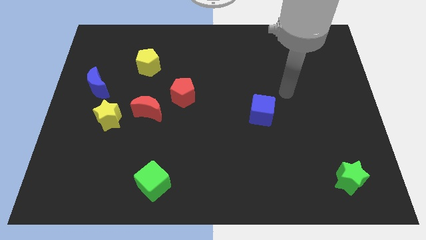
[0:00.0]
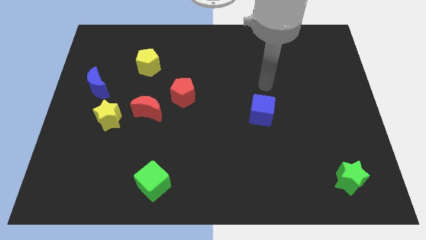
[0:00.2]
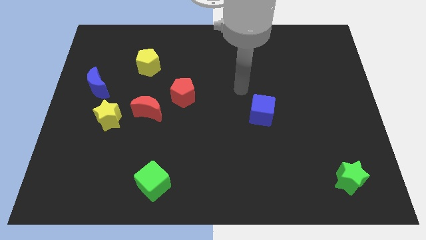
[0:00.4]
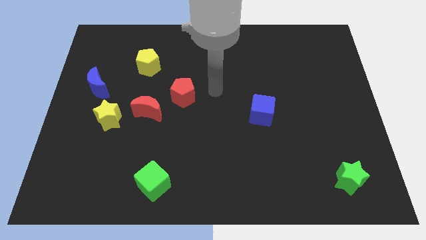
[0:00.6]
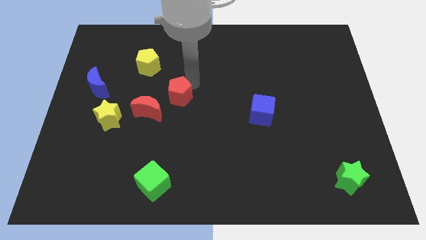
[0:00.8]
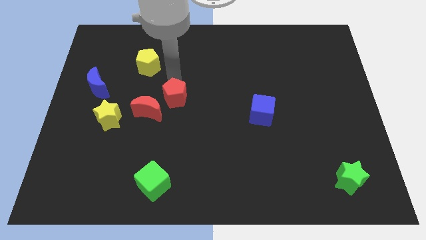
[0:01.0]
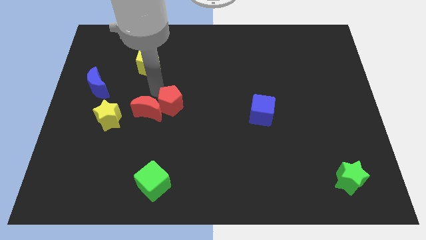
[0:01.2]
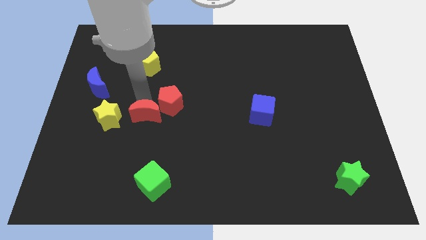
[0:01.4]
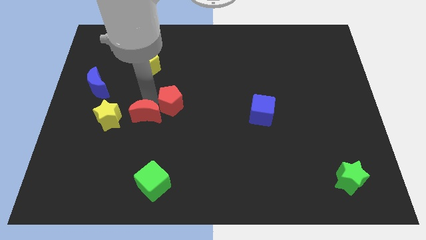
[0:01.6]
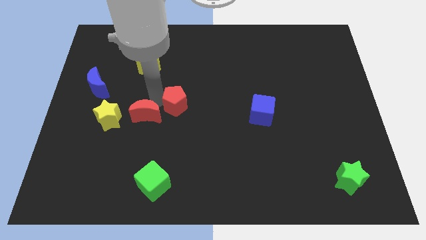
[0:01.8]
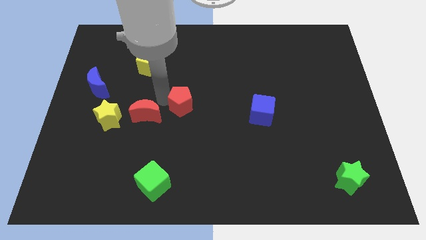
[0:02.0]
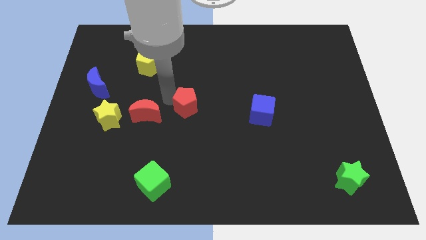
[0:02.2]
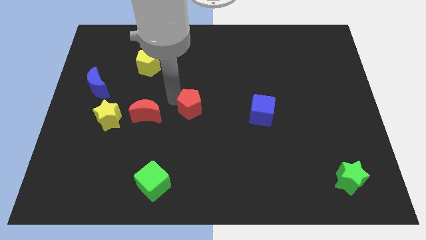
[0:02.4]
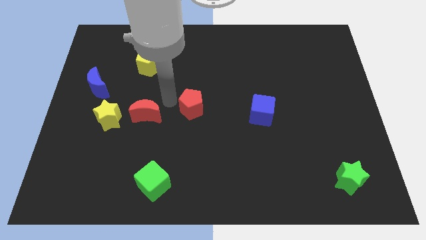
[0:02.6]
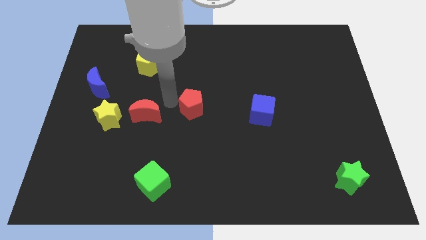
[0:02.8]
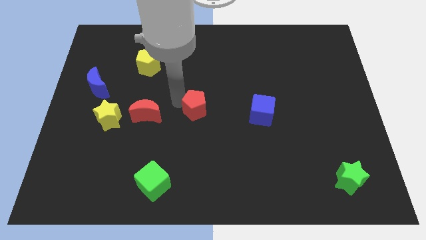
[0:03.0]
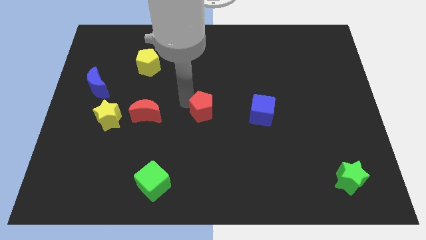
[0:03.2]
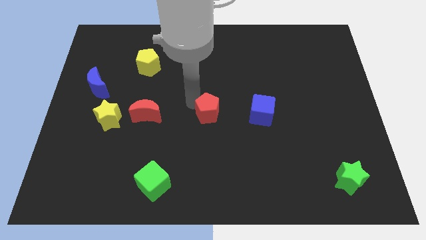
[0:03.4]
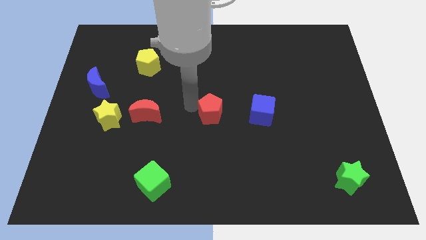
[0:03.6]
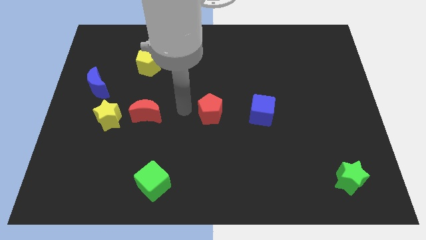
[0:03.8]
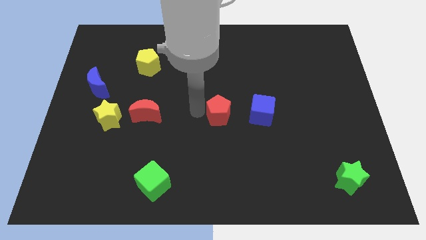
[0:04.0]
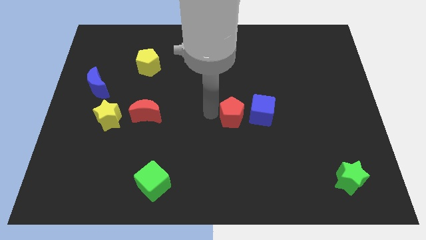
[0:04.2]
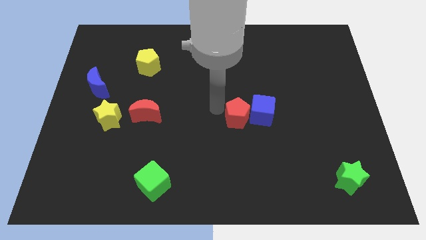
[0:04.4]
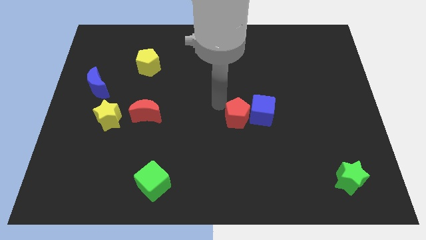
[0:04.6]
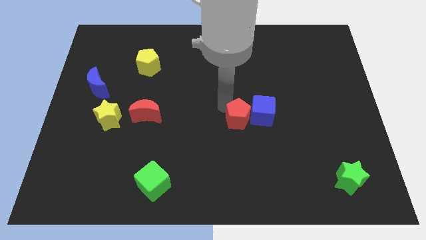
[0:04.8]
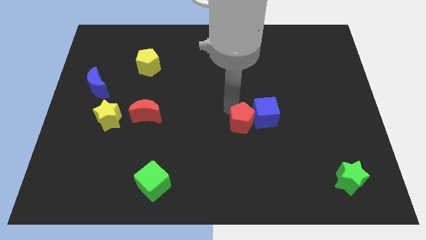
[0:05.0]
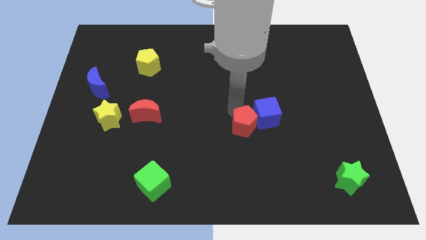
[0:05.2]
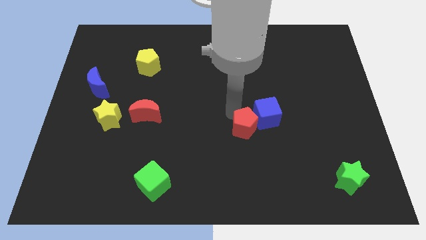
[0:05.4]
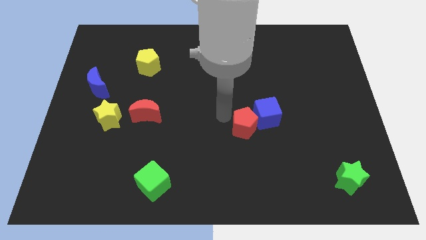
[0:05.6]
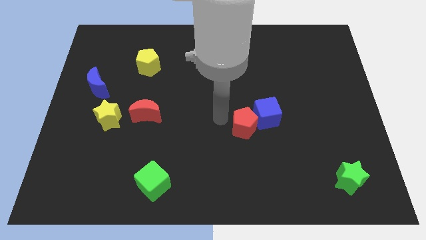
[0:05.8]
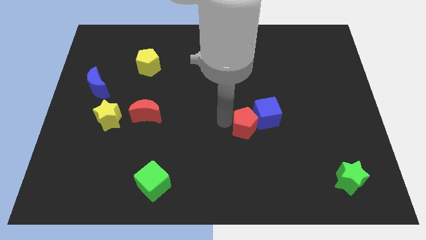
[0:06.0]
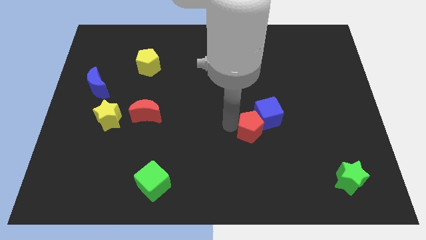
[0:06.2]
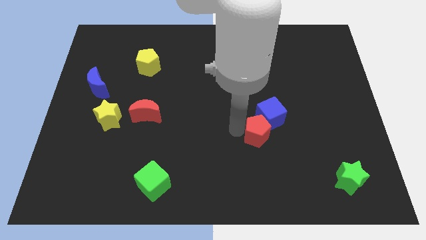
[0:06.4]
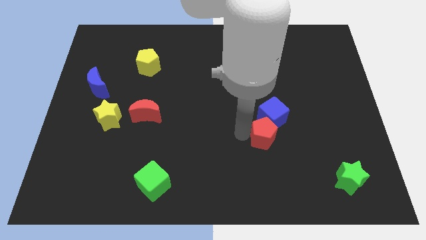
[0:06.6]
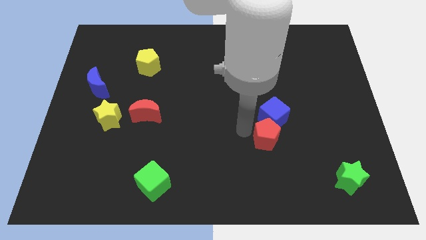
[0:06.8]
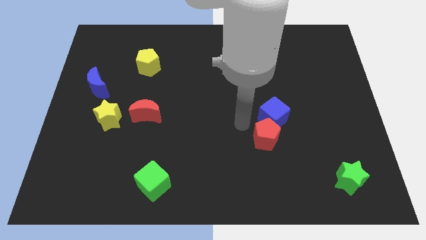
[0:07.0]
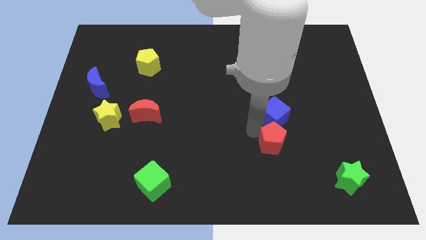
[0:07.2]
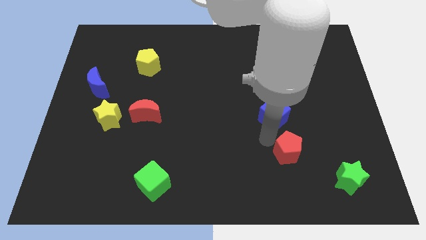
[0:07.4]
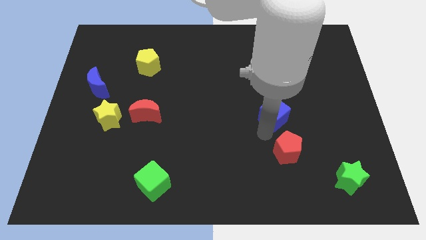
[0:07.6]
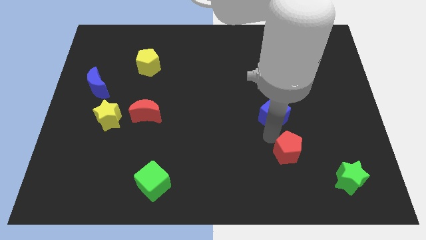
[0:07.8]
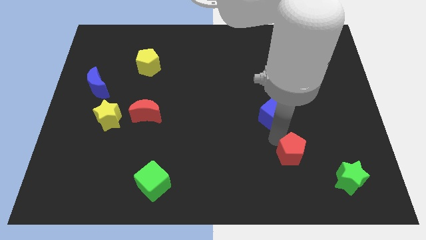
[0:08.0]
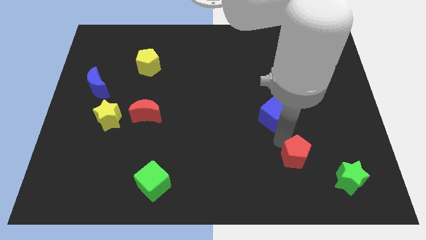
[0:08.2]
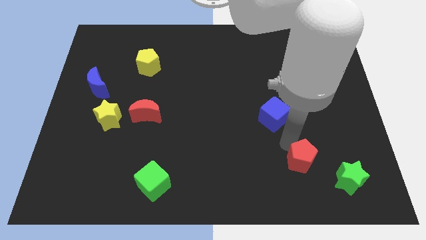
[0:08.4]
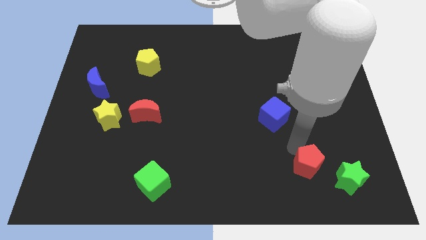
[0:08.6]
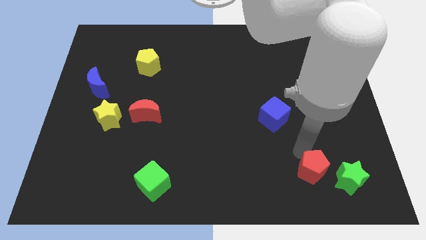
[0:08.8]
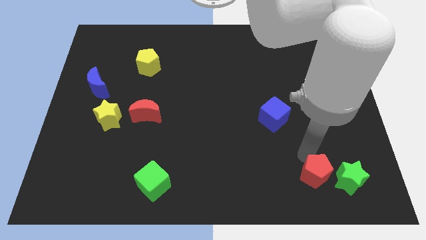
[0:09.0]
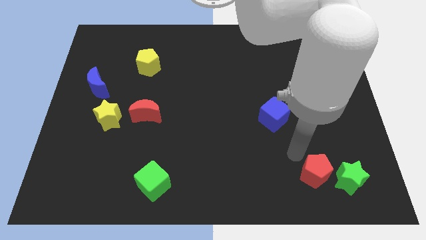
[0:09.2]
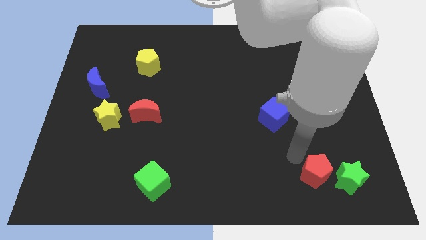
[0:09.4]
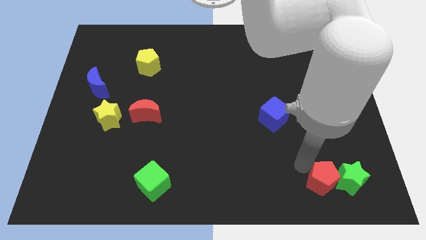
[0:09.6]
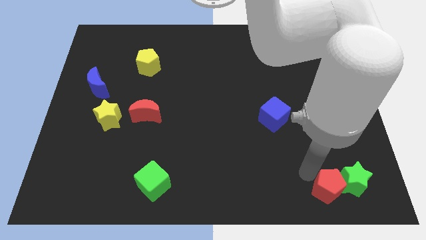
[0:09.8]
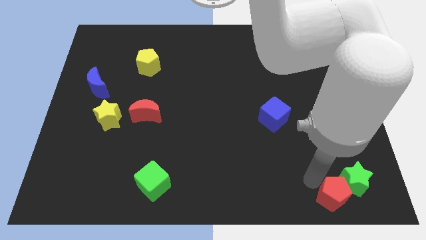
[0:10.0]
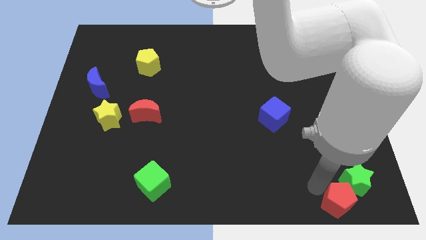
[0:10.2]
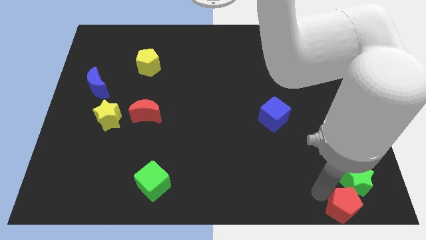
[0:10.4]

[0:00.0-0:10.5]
move the red pentagon to the lower right corner

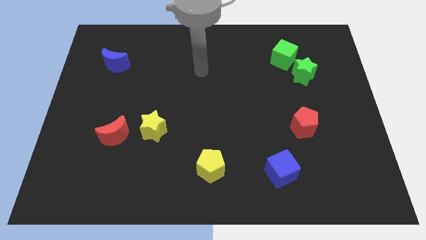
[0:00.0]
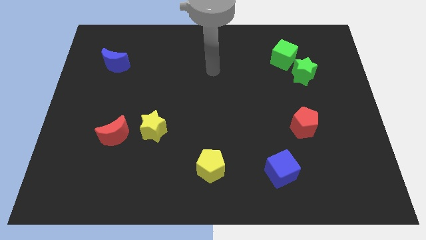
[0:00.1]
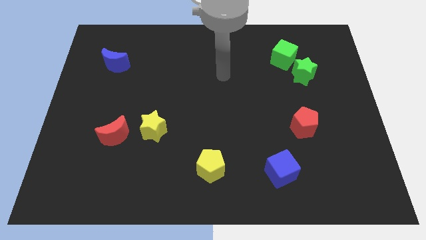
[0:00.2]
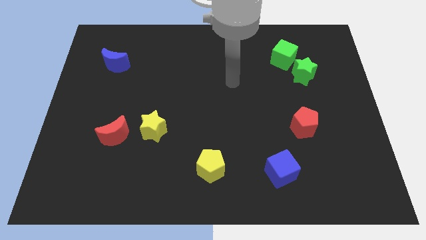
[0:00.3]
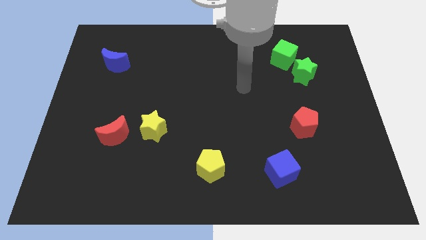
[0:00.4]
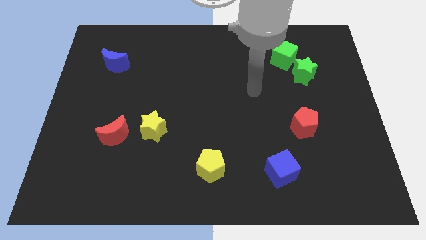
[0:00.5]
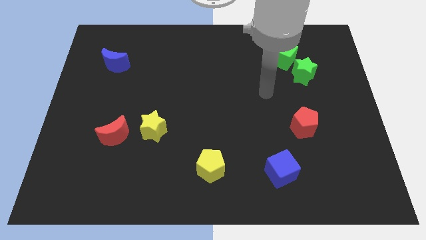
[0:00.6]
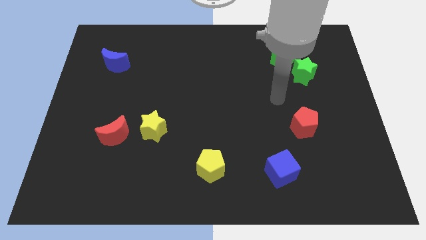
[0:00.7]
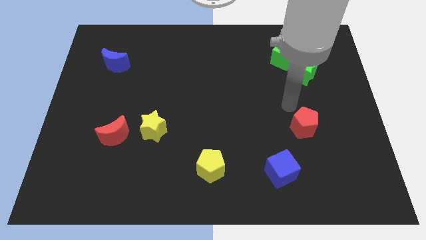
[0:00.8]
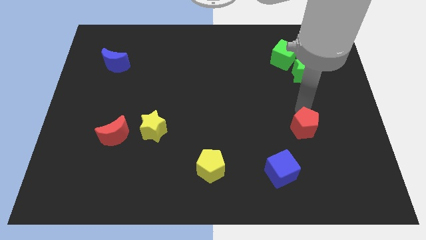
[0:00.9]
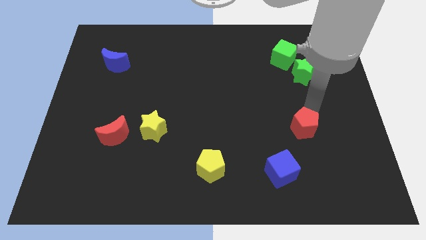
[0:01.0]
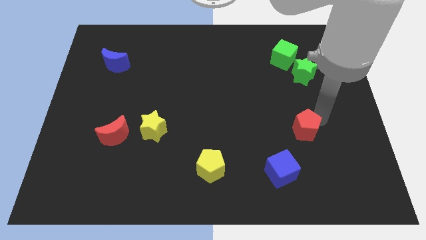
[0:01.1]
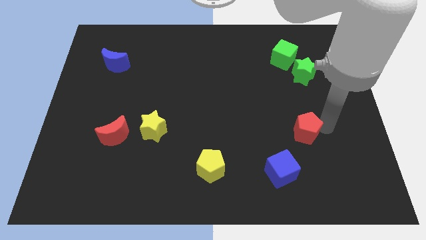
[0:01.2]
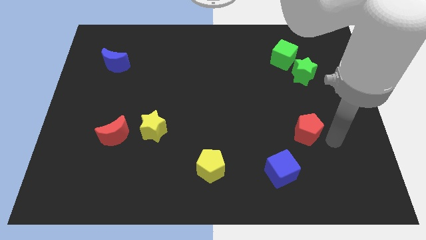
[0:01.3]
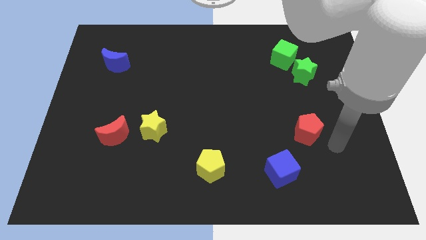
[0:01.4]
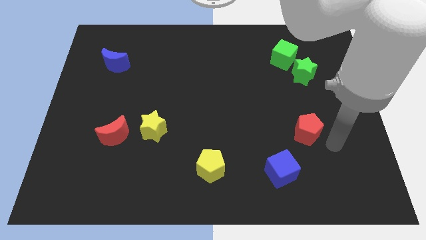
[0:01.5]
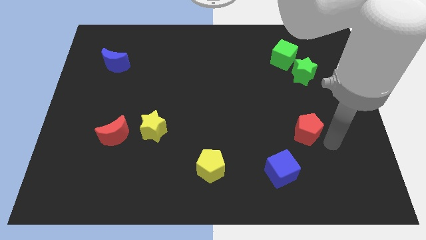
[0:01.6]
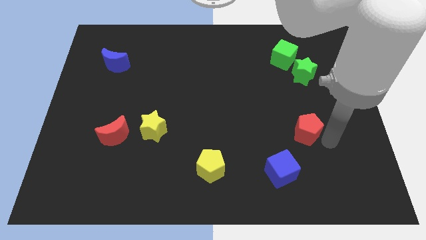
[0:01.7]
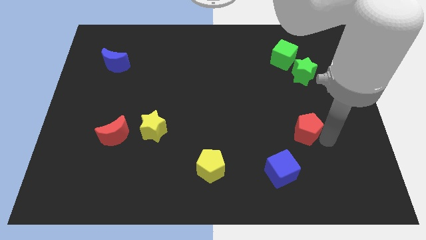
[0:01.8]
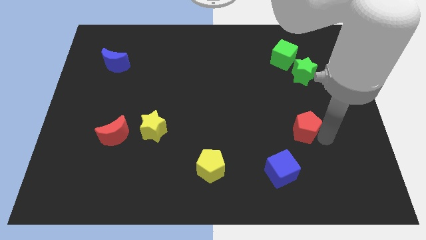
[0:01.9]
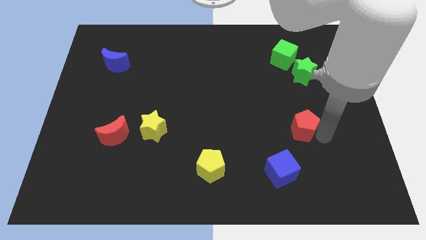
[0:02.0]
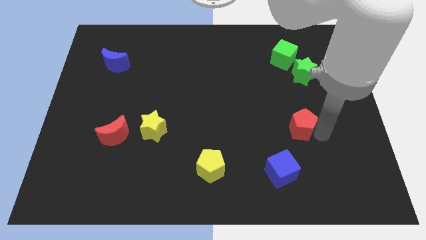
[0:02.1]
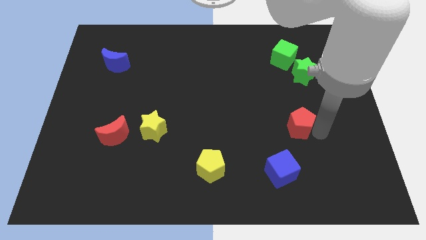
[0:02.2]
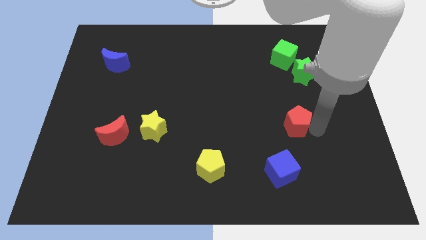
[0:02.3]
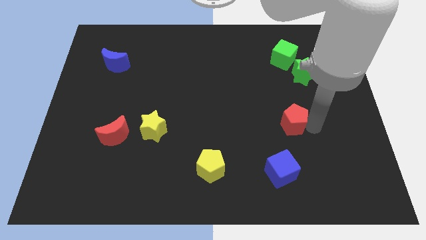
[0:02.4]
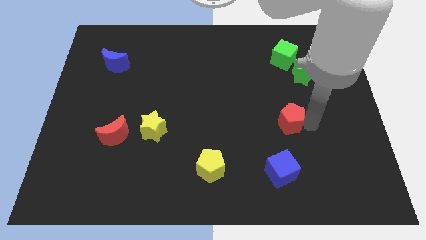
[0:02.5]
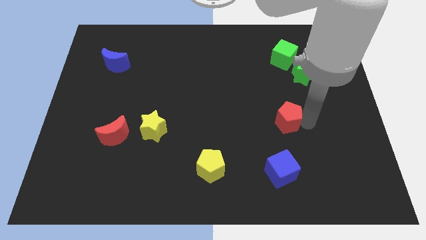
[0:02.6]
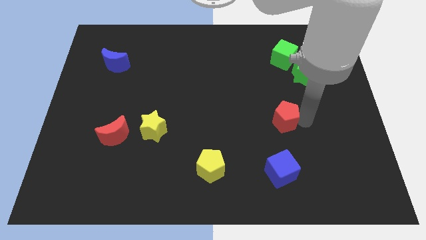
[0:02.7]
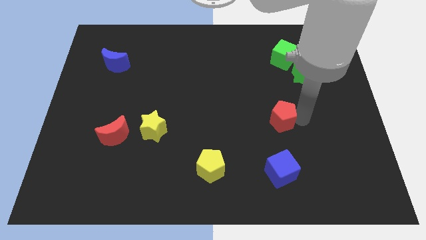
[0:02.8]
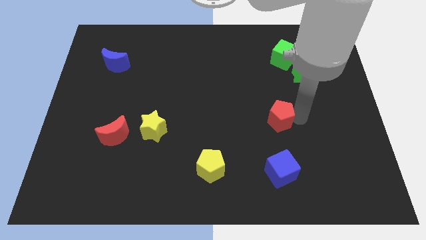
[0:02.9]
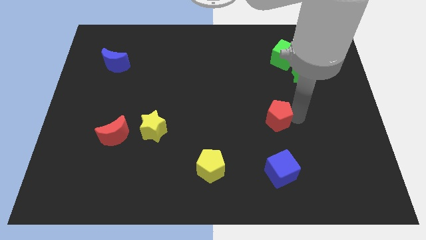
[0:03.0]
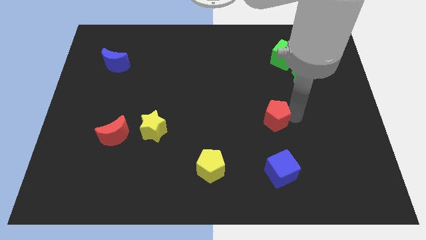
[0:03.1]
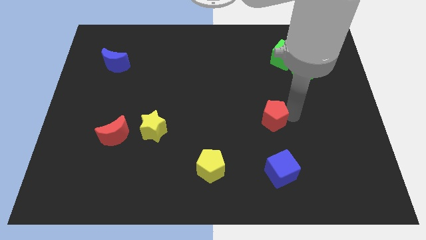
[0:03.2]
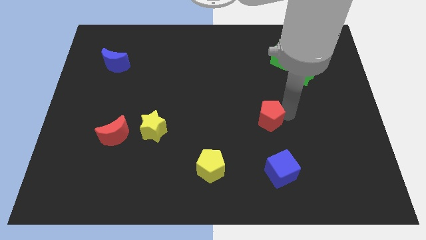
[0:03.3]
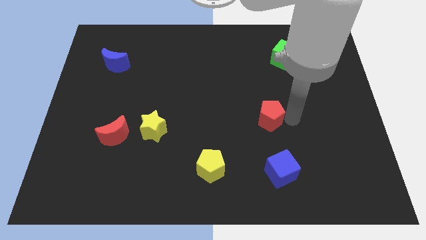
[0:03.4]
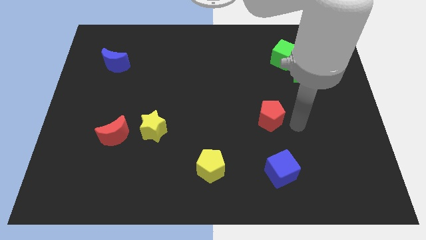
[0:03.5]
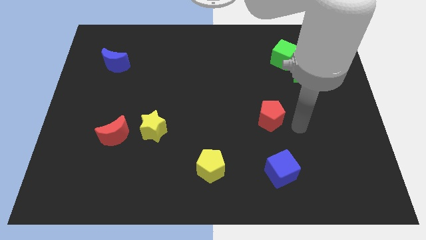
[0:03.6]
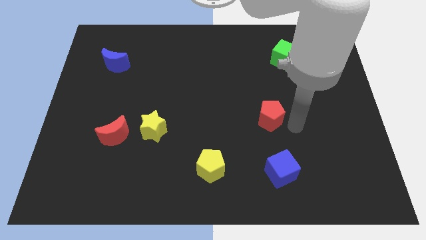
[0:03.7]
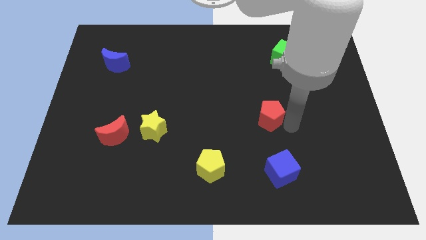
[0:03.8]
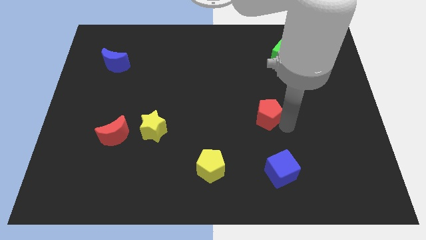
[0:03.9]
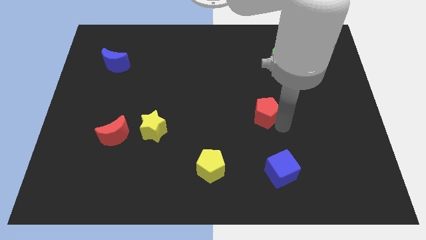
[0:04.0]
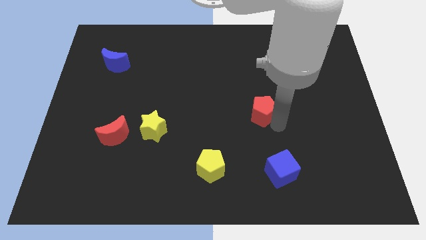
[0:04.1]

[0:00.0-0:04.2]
slide the red pentagon to the middle of the board
